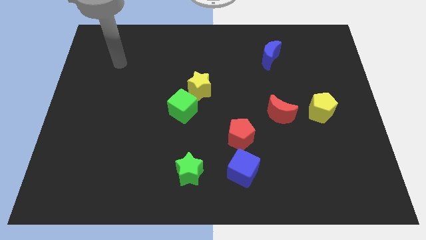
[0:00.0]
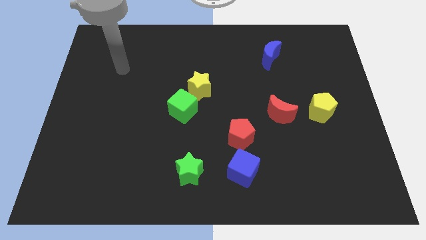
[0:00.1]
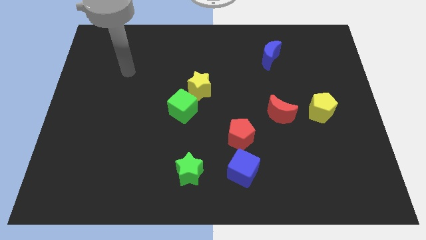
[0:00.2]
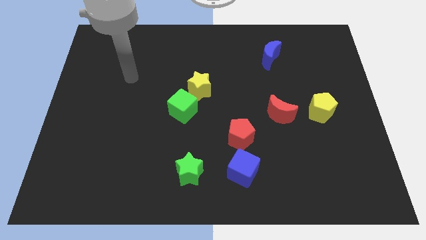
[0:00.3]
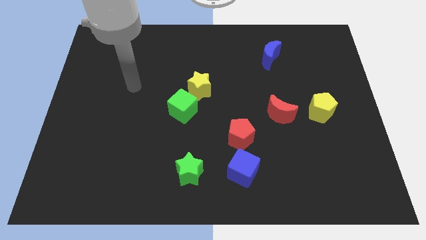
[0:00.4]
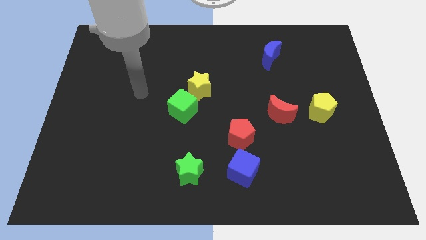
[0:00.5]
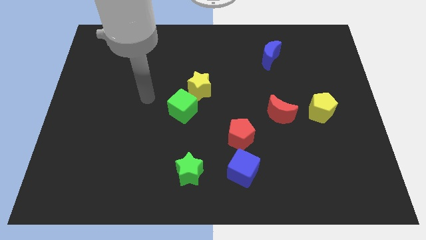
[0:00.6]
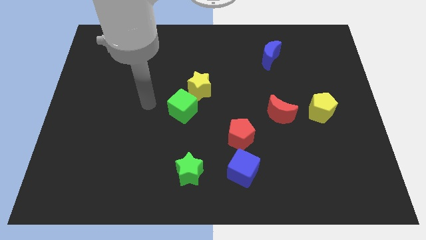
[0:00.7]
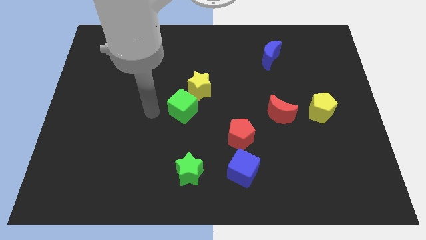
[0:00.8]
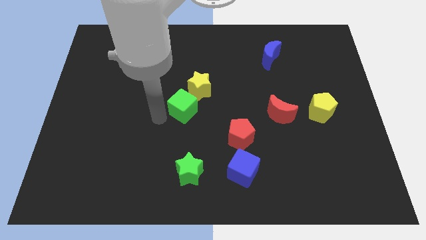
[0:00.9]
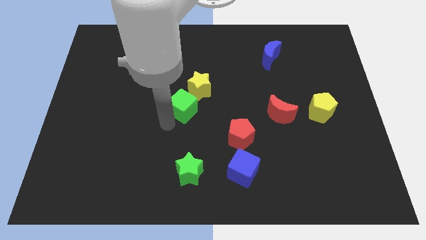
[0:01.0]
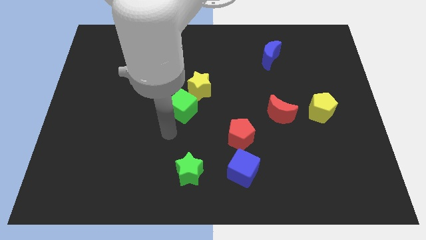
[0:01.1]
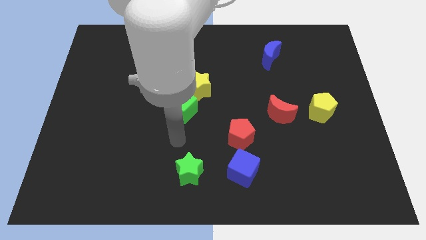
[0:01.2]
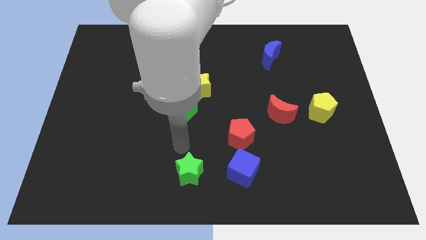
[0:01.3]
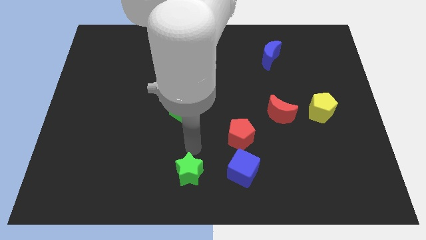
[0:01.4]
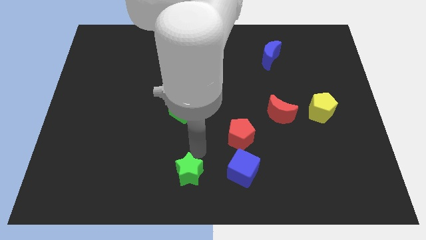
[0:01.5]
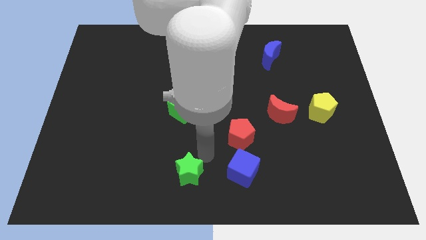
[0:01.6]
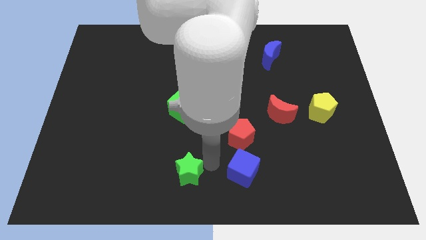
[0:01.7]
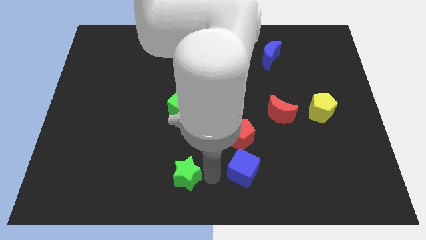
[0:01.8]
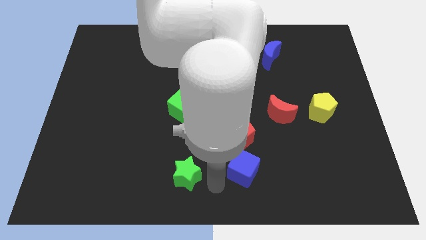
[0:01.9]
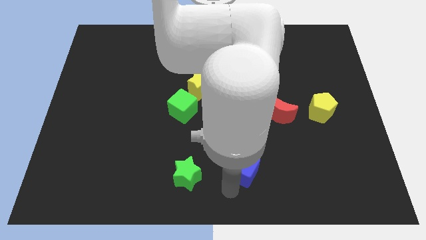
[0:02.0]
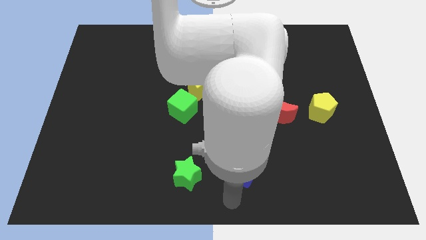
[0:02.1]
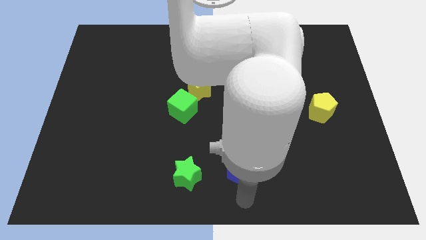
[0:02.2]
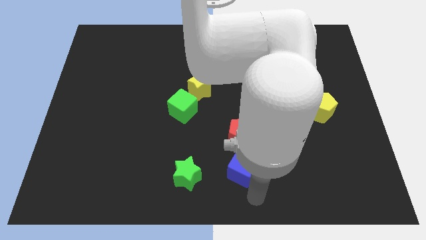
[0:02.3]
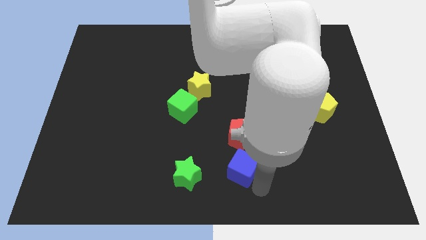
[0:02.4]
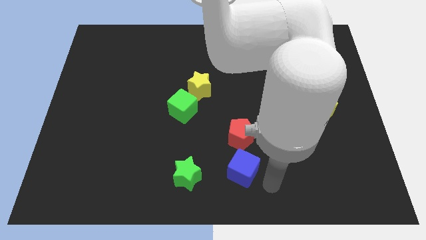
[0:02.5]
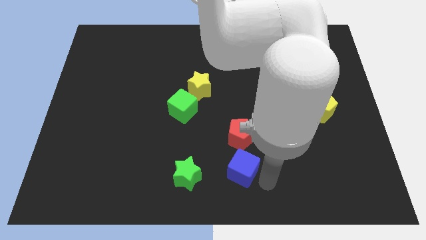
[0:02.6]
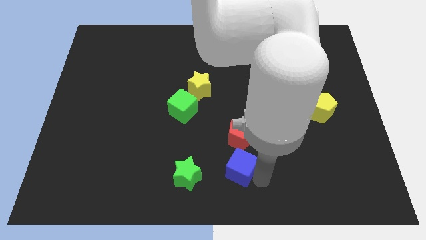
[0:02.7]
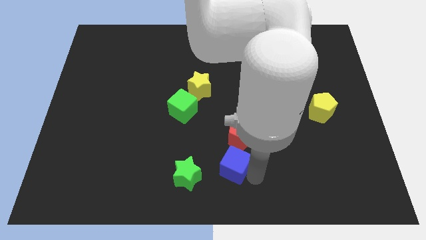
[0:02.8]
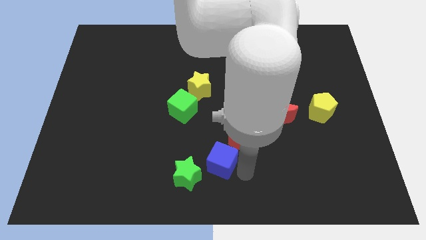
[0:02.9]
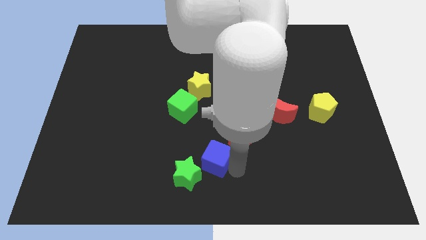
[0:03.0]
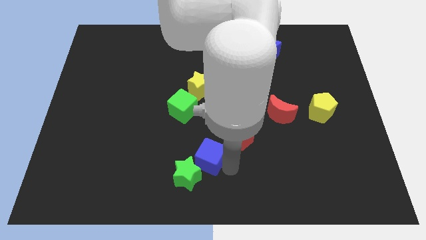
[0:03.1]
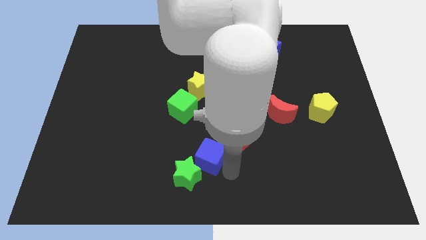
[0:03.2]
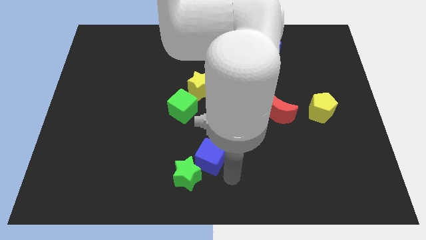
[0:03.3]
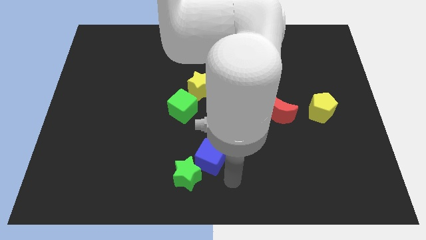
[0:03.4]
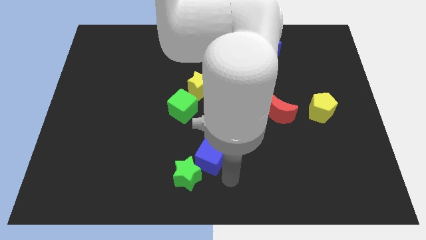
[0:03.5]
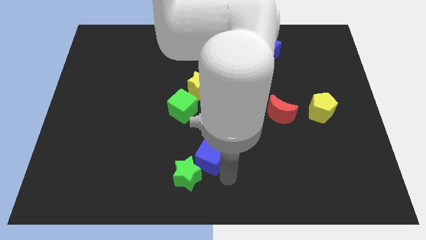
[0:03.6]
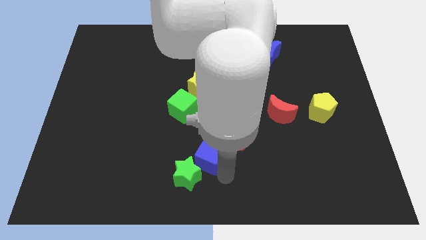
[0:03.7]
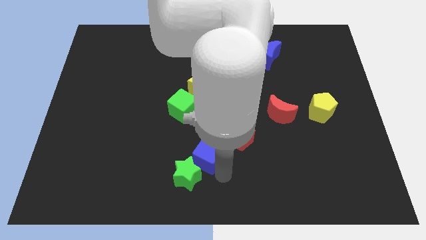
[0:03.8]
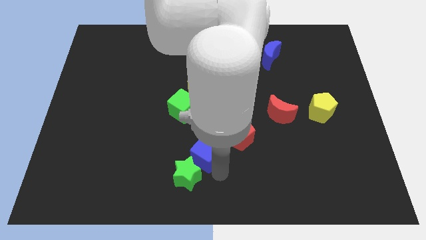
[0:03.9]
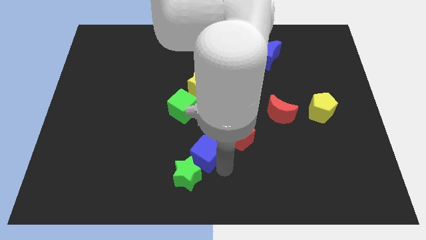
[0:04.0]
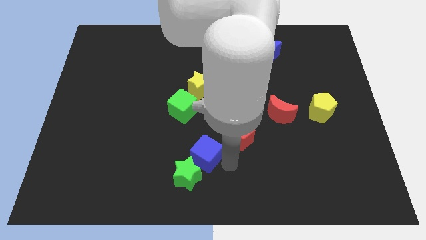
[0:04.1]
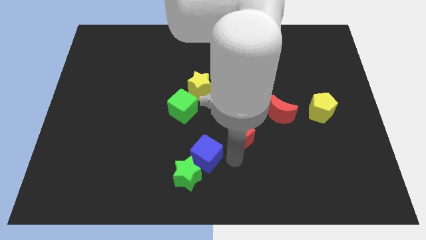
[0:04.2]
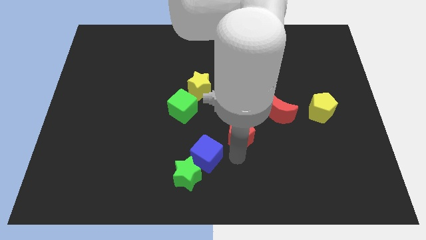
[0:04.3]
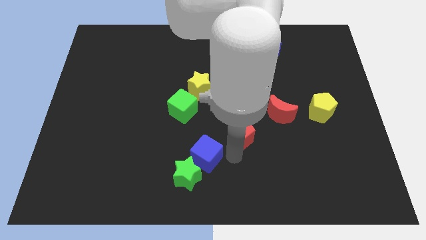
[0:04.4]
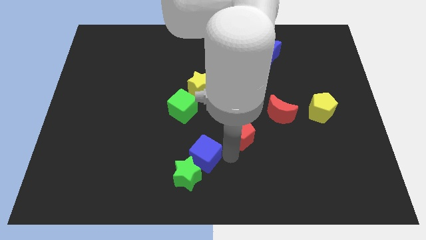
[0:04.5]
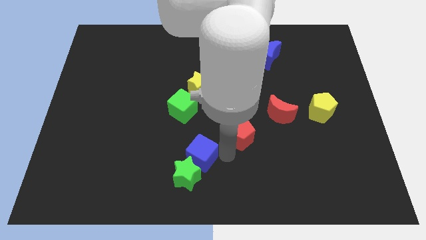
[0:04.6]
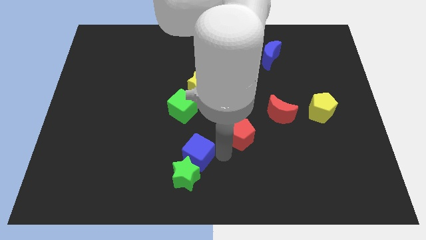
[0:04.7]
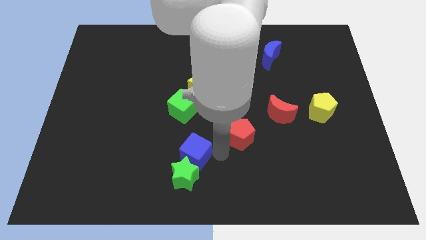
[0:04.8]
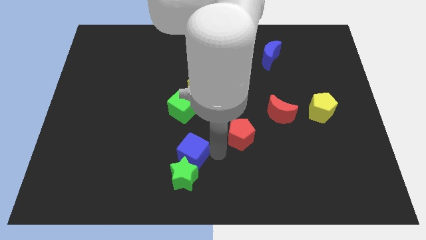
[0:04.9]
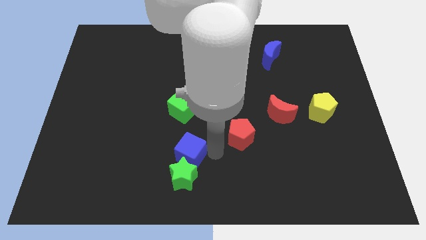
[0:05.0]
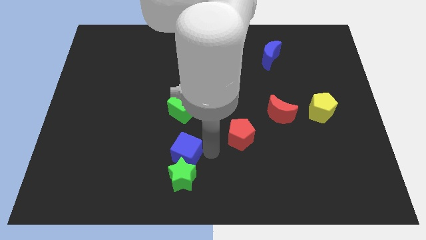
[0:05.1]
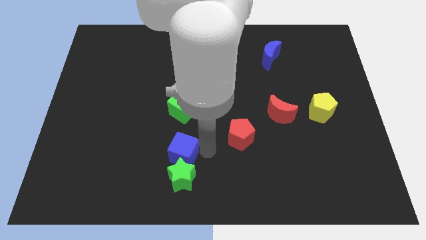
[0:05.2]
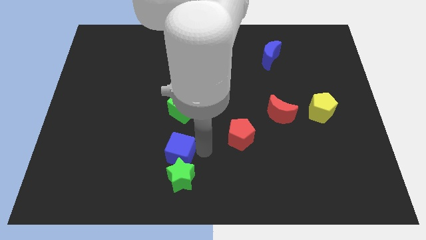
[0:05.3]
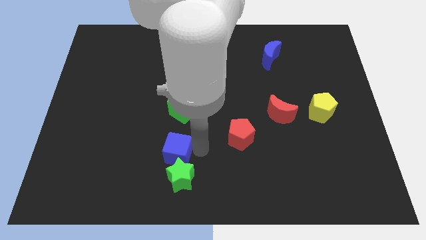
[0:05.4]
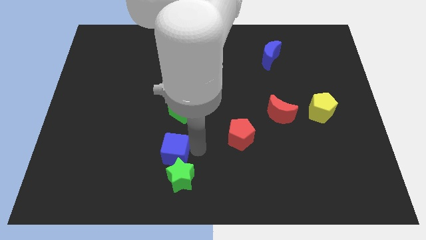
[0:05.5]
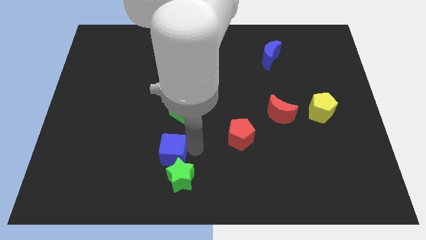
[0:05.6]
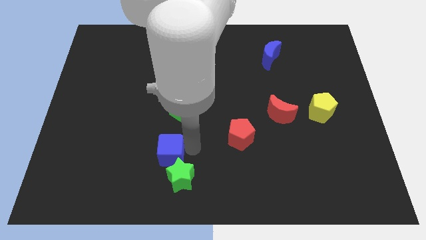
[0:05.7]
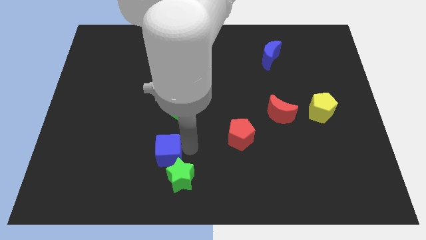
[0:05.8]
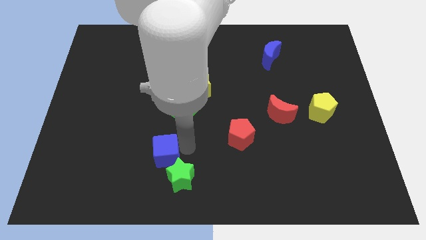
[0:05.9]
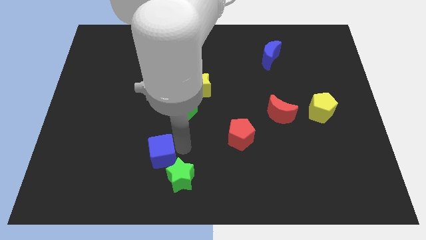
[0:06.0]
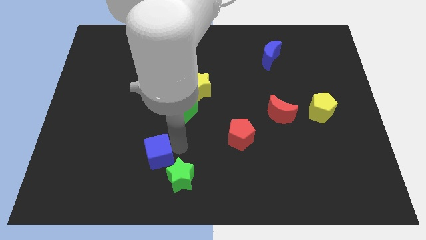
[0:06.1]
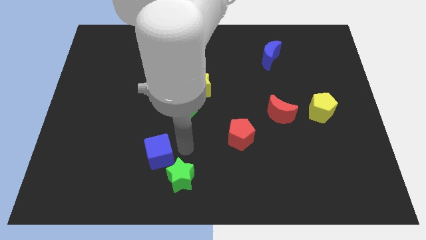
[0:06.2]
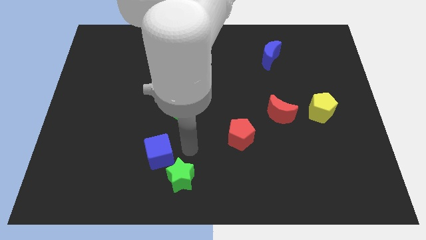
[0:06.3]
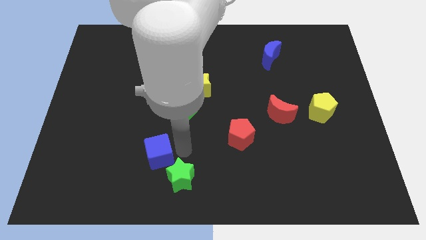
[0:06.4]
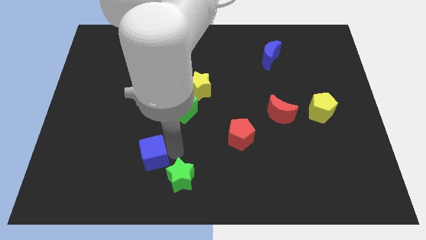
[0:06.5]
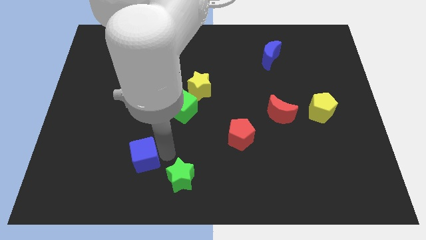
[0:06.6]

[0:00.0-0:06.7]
push the blue cube left

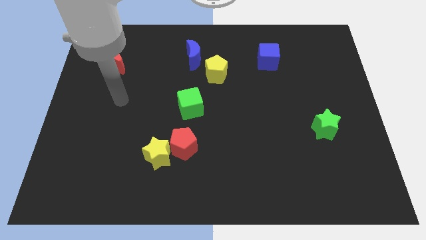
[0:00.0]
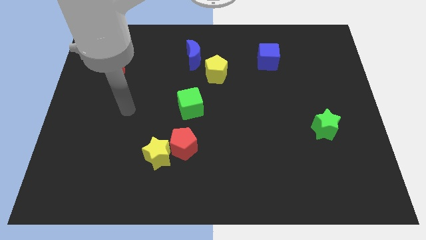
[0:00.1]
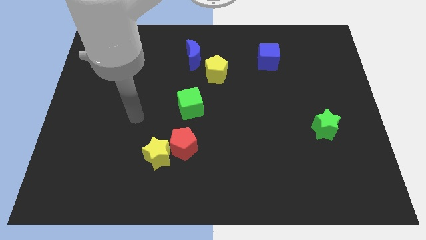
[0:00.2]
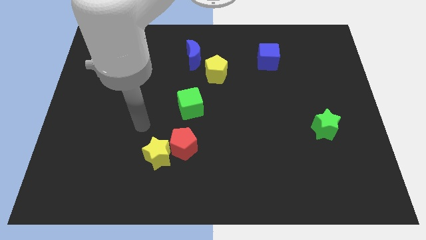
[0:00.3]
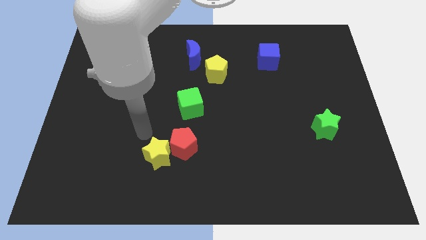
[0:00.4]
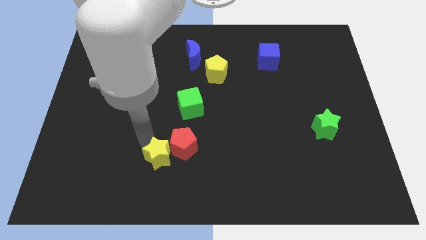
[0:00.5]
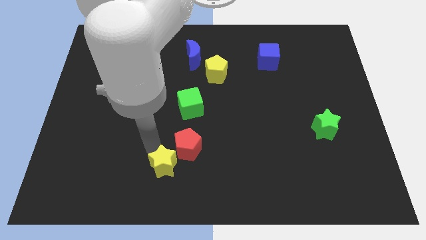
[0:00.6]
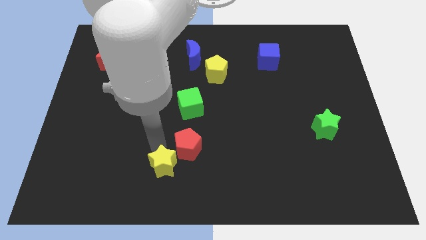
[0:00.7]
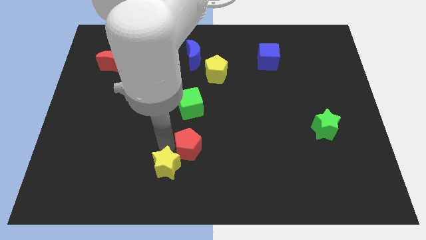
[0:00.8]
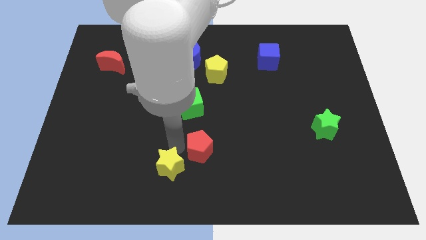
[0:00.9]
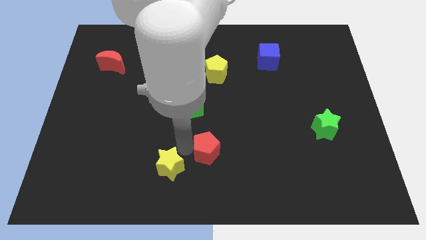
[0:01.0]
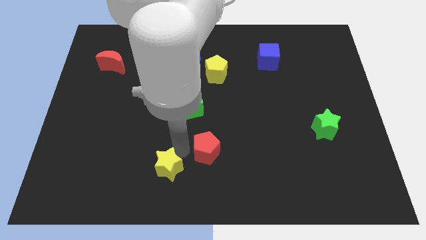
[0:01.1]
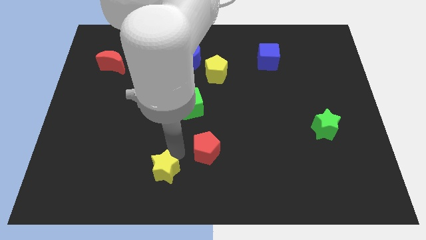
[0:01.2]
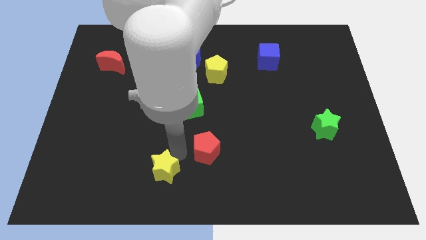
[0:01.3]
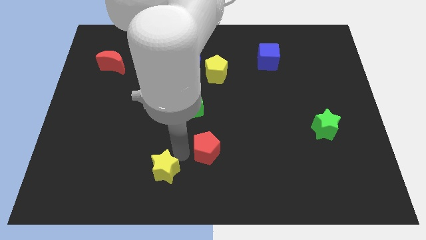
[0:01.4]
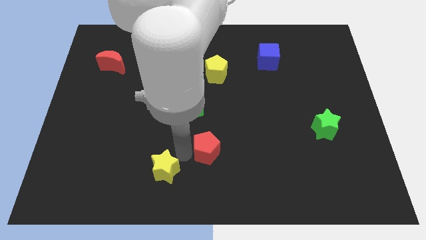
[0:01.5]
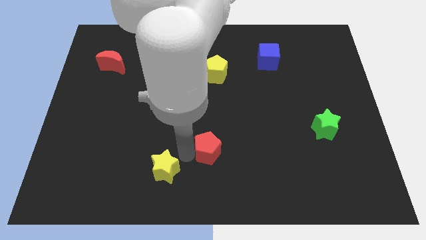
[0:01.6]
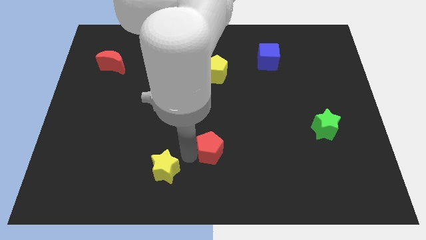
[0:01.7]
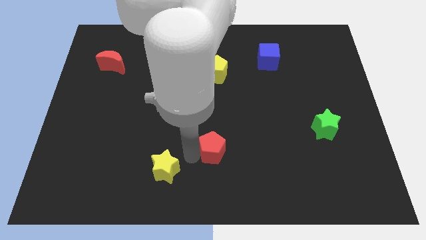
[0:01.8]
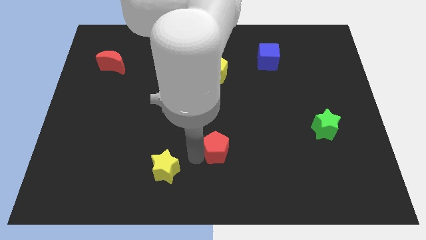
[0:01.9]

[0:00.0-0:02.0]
push the red pentagon to the right a little bit
